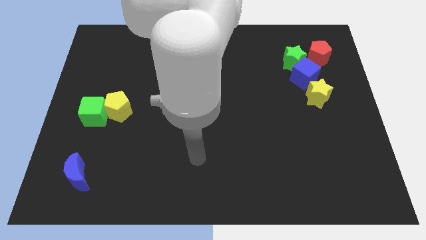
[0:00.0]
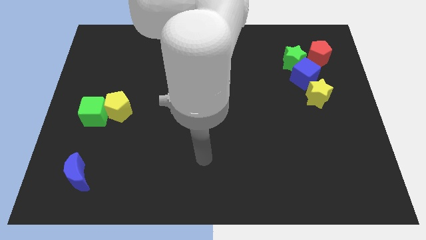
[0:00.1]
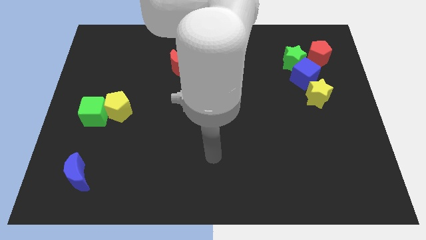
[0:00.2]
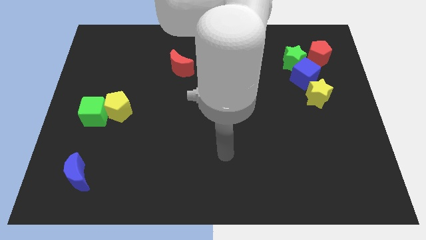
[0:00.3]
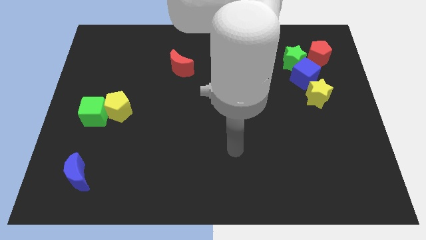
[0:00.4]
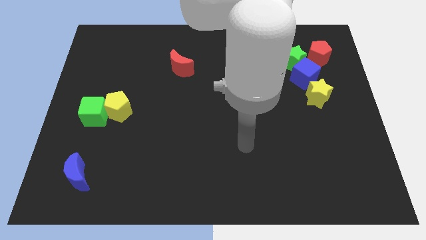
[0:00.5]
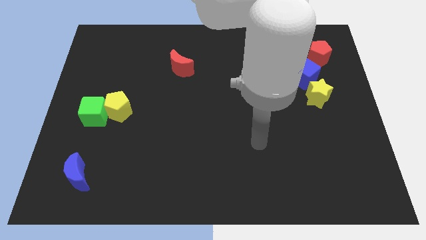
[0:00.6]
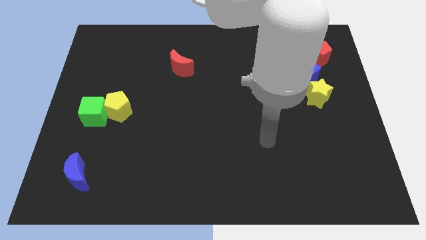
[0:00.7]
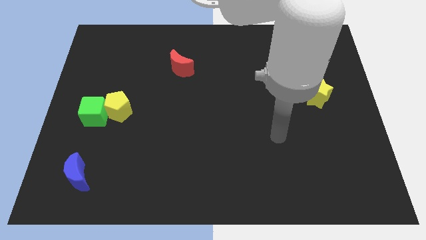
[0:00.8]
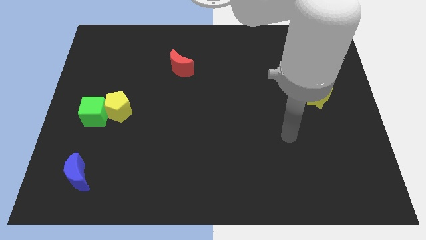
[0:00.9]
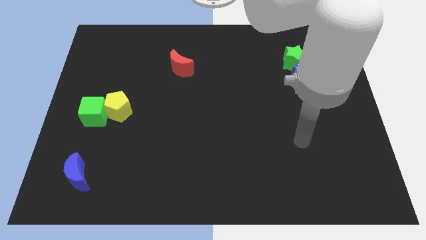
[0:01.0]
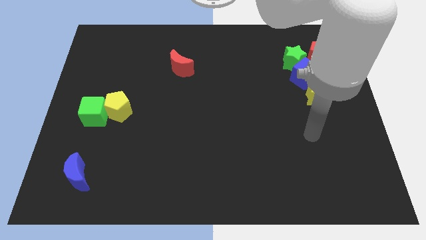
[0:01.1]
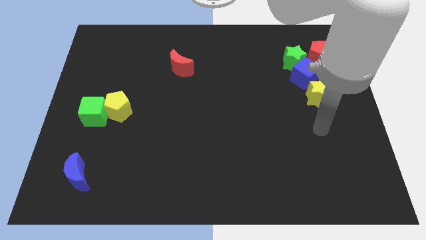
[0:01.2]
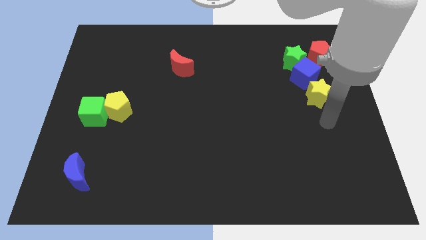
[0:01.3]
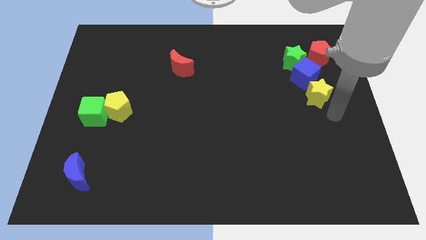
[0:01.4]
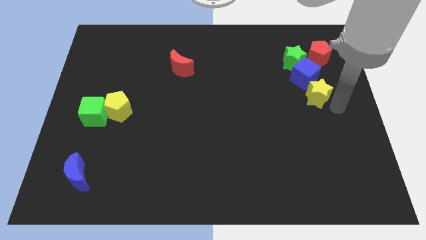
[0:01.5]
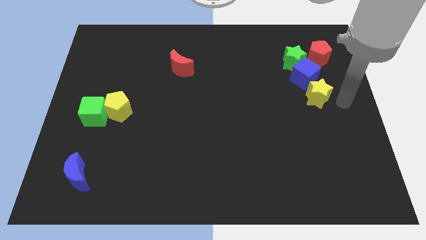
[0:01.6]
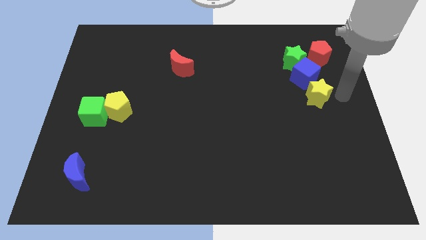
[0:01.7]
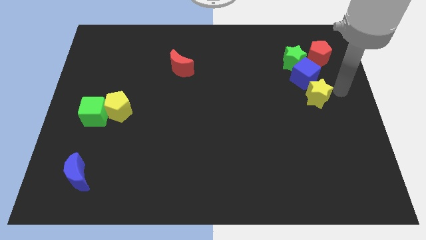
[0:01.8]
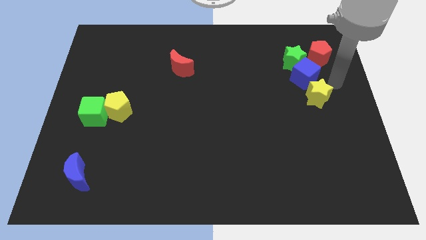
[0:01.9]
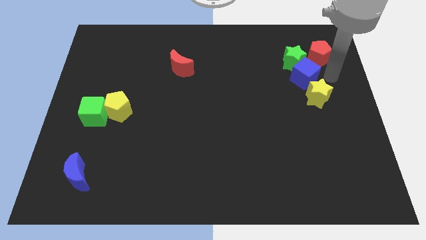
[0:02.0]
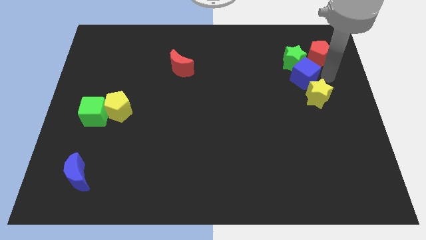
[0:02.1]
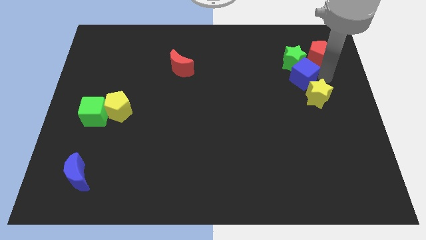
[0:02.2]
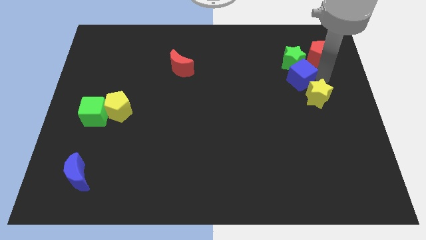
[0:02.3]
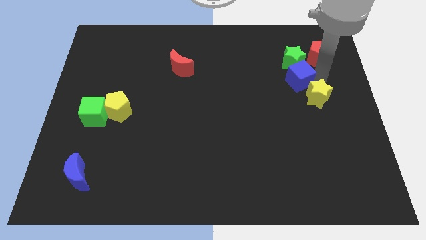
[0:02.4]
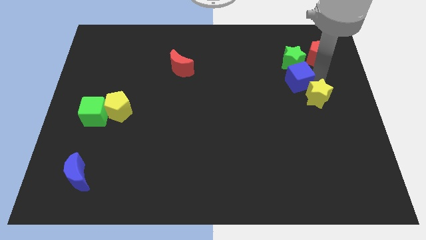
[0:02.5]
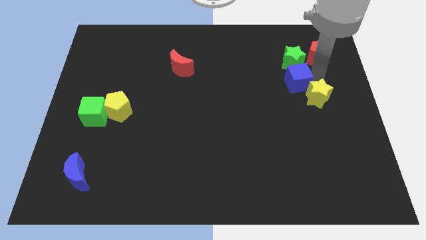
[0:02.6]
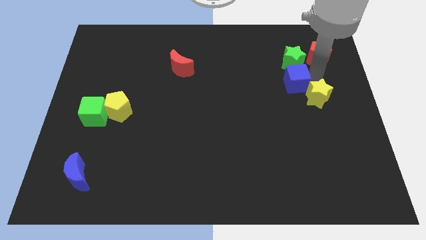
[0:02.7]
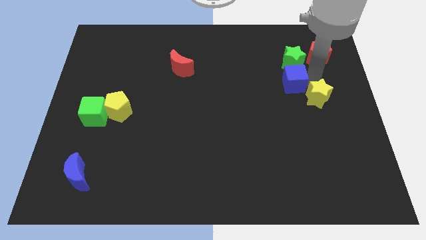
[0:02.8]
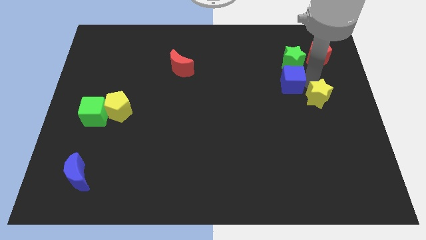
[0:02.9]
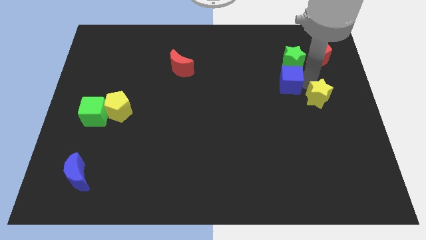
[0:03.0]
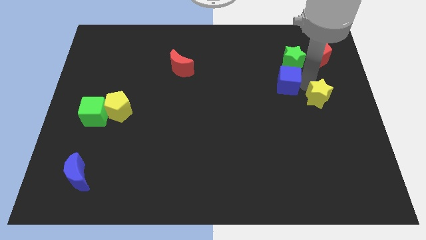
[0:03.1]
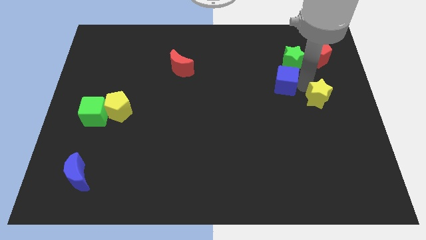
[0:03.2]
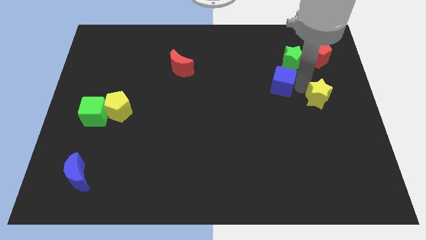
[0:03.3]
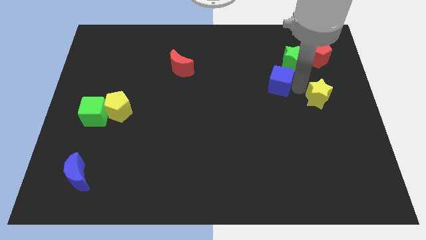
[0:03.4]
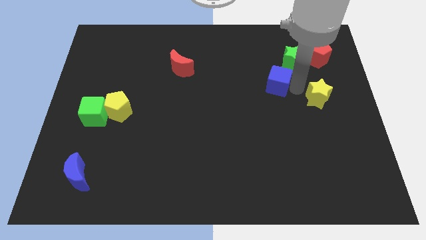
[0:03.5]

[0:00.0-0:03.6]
move the blue cube a bit to the left

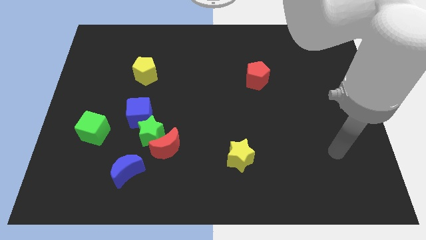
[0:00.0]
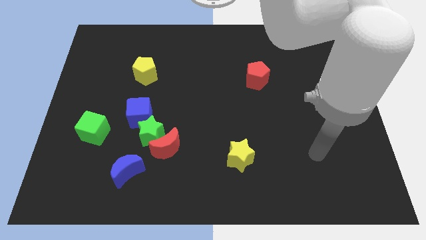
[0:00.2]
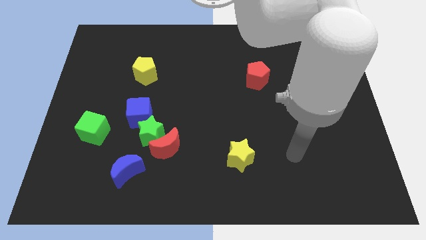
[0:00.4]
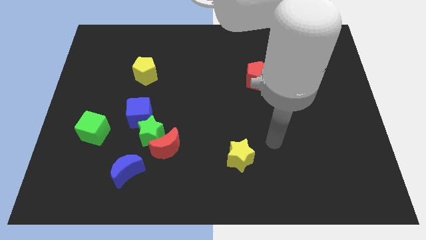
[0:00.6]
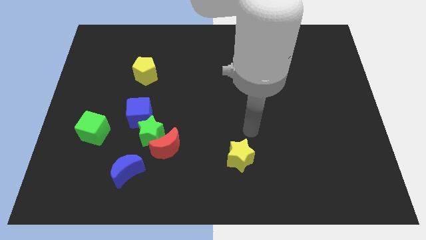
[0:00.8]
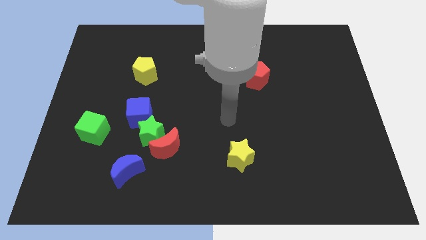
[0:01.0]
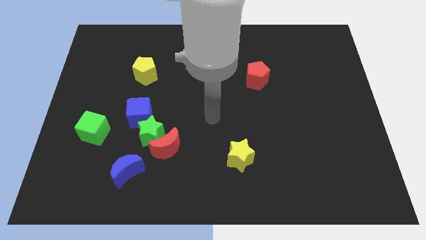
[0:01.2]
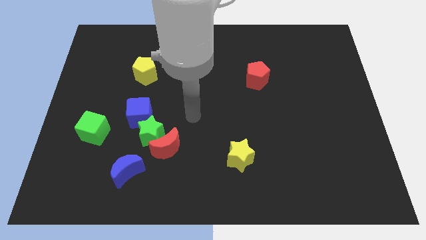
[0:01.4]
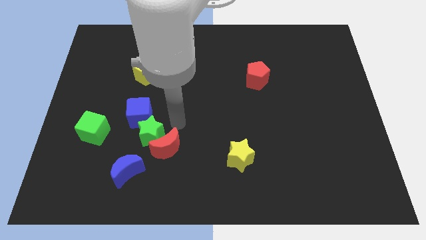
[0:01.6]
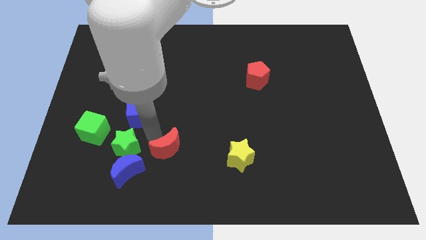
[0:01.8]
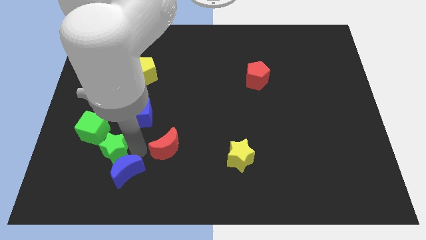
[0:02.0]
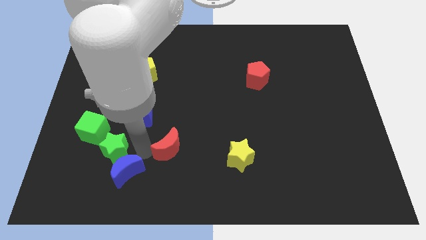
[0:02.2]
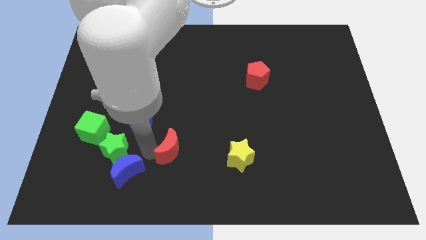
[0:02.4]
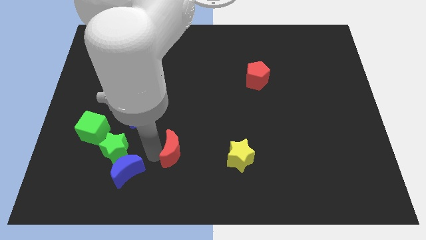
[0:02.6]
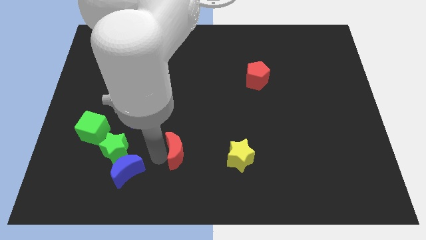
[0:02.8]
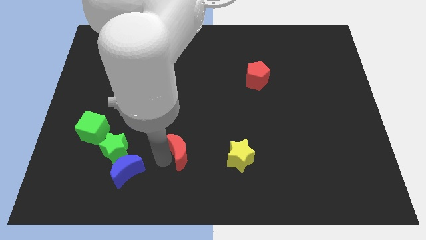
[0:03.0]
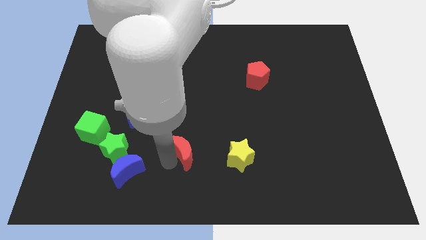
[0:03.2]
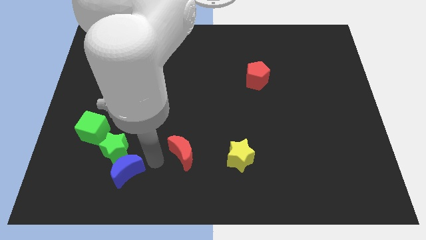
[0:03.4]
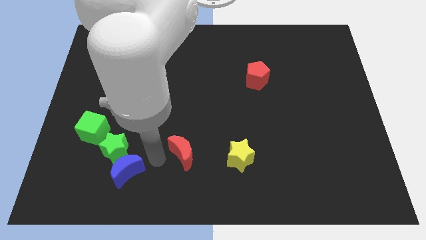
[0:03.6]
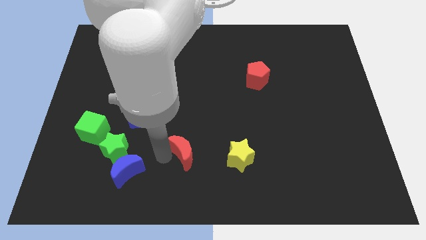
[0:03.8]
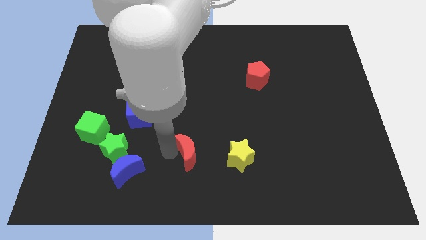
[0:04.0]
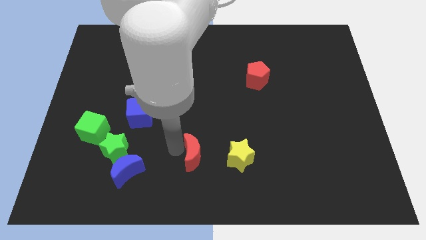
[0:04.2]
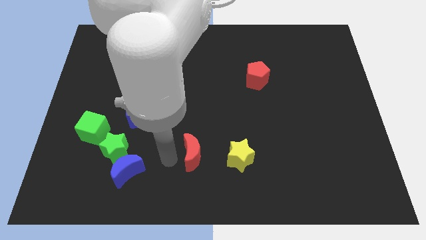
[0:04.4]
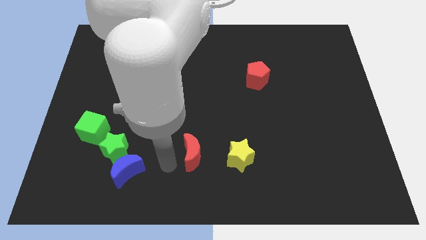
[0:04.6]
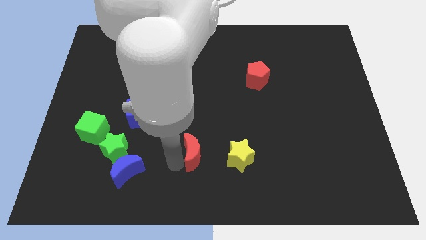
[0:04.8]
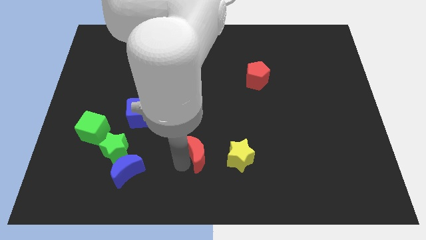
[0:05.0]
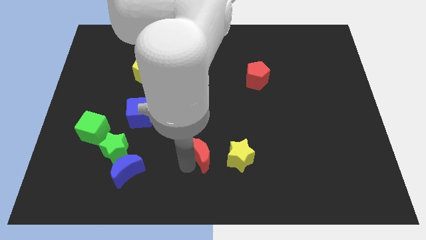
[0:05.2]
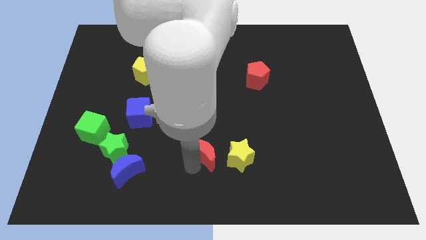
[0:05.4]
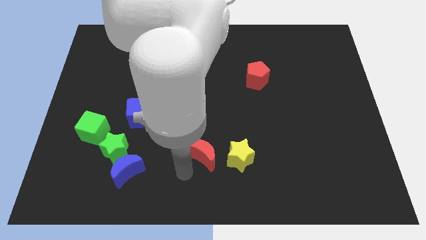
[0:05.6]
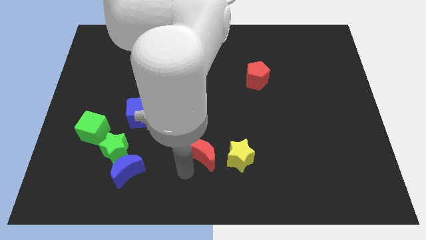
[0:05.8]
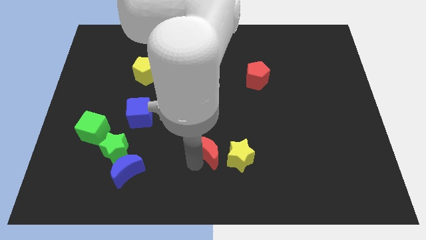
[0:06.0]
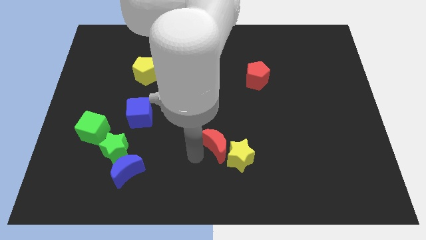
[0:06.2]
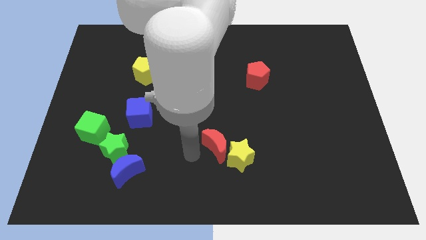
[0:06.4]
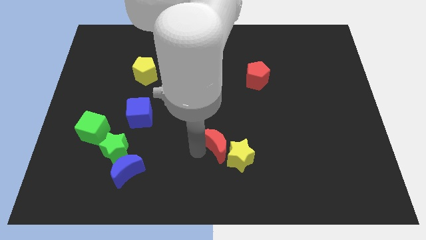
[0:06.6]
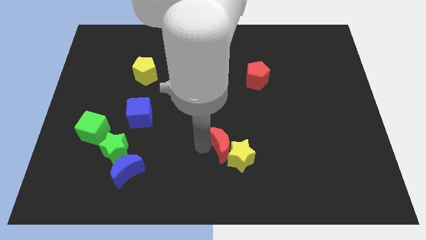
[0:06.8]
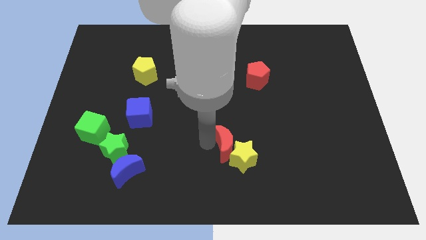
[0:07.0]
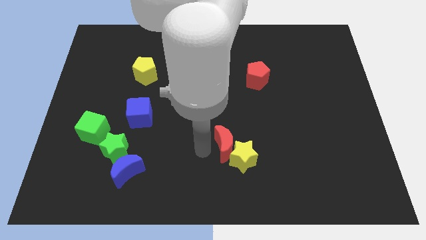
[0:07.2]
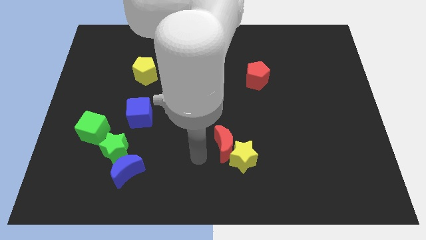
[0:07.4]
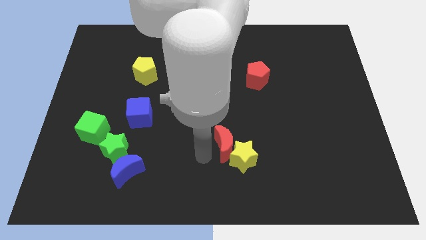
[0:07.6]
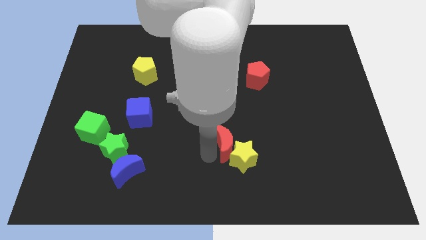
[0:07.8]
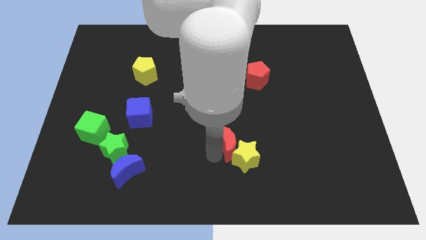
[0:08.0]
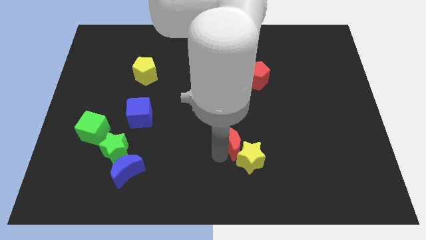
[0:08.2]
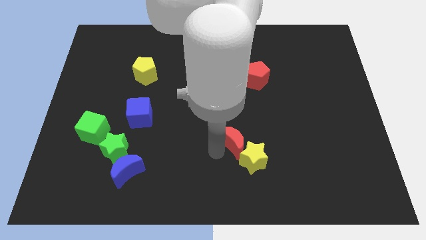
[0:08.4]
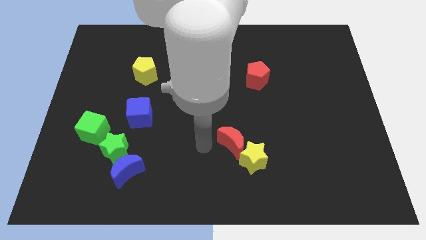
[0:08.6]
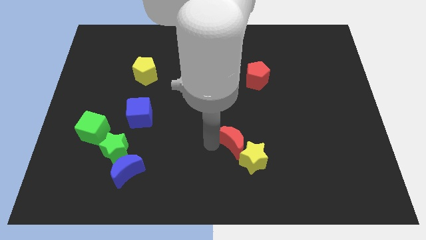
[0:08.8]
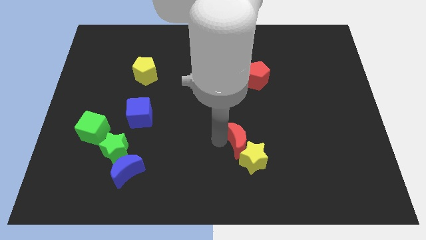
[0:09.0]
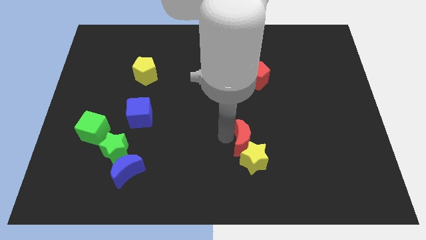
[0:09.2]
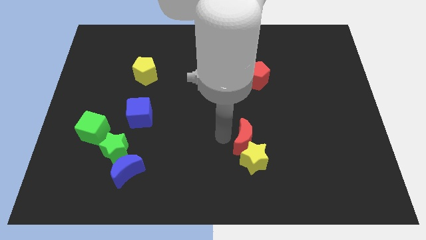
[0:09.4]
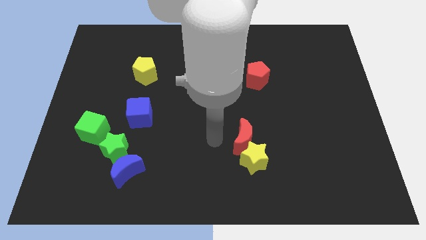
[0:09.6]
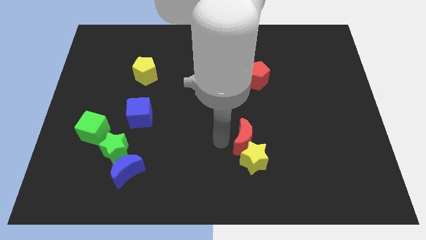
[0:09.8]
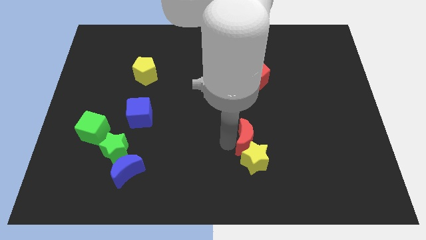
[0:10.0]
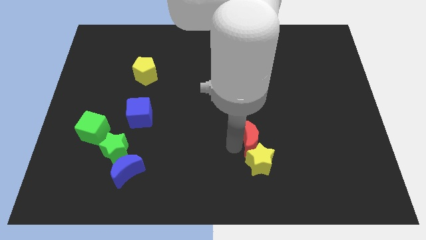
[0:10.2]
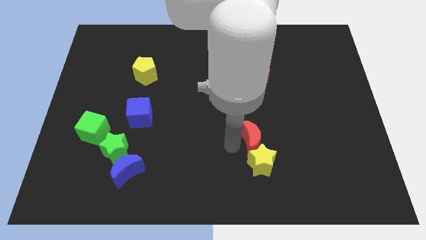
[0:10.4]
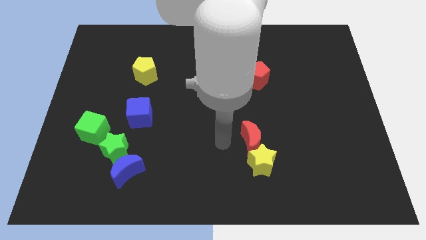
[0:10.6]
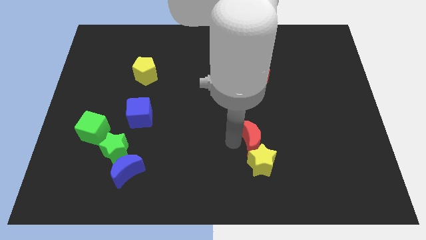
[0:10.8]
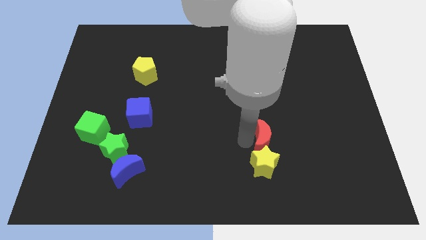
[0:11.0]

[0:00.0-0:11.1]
move the red moon to the right
